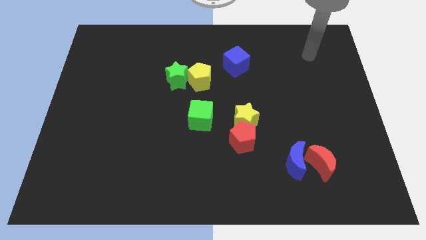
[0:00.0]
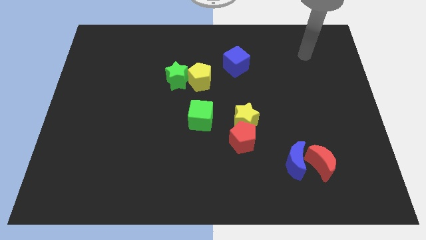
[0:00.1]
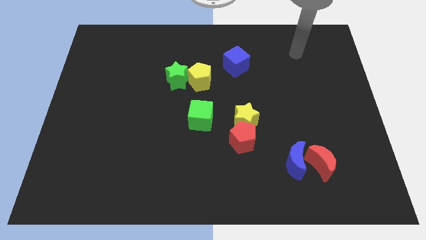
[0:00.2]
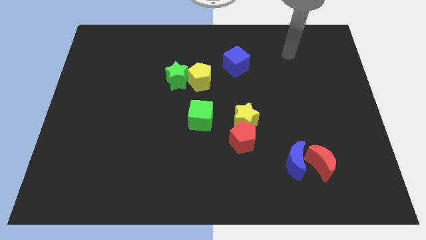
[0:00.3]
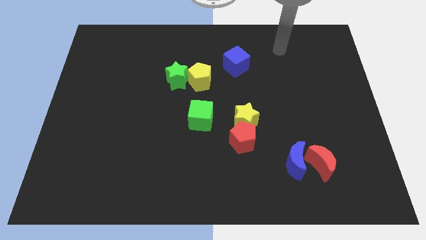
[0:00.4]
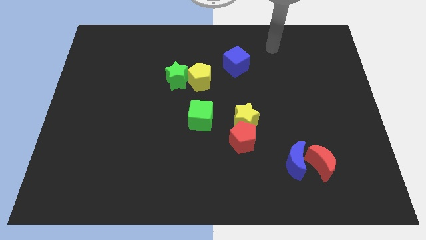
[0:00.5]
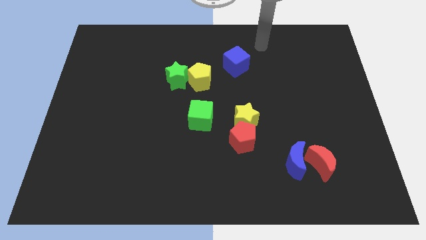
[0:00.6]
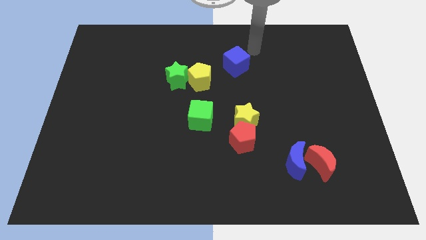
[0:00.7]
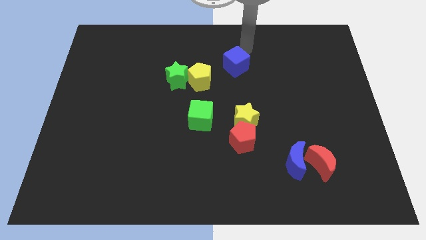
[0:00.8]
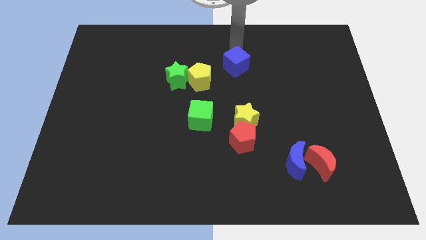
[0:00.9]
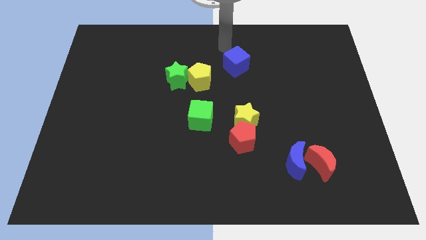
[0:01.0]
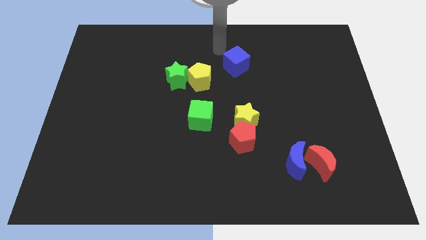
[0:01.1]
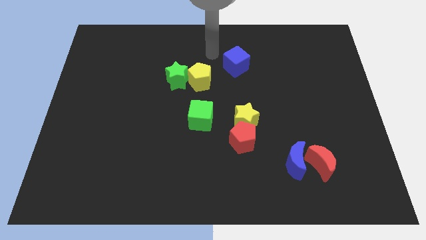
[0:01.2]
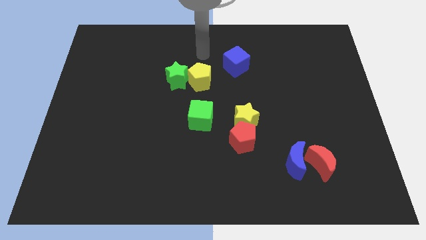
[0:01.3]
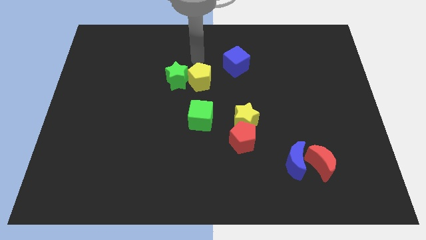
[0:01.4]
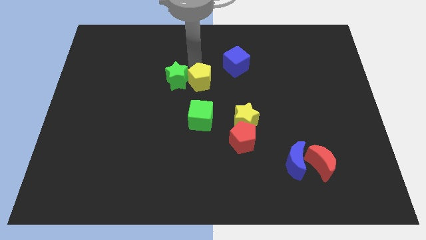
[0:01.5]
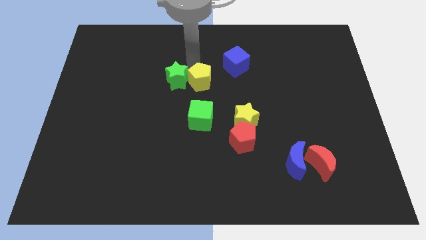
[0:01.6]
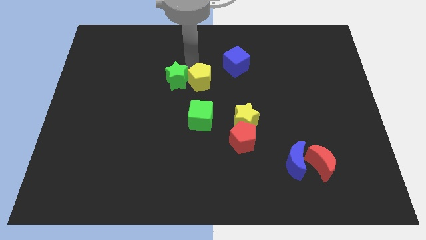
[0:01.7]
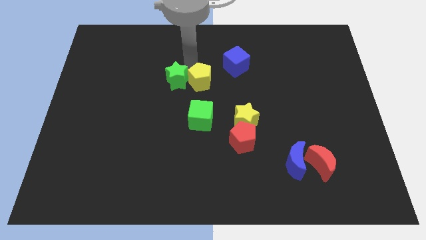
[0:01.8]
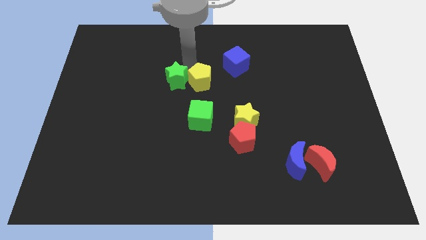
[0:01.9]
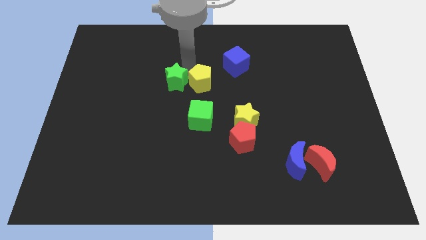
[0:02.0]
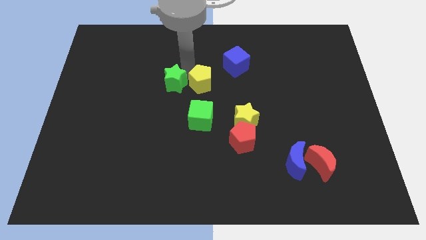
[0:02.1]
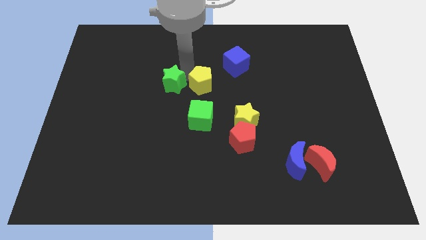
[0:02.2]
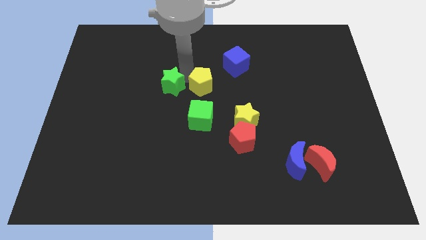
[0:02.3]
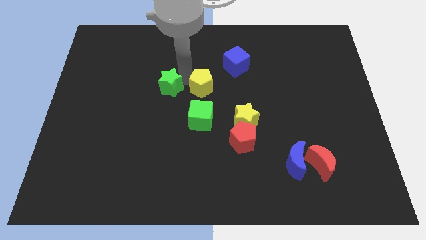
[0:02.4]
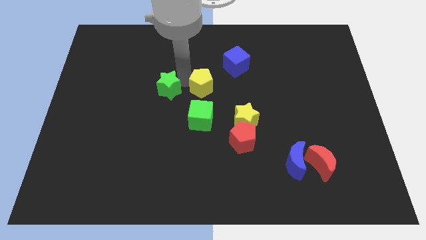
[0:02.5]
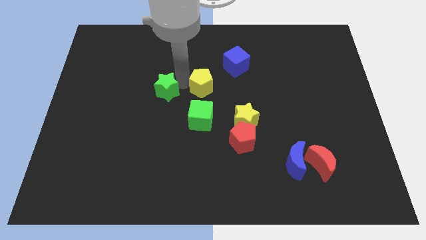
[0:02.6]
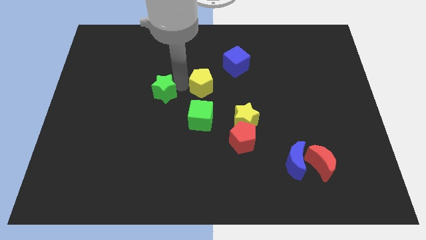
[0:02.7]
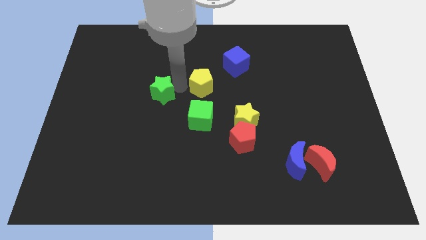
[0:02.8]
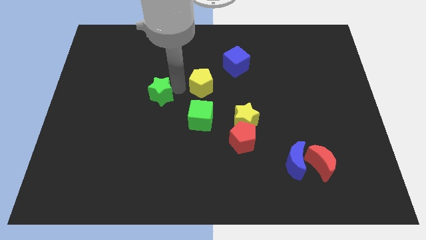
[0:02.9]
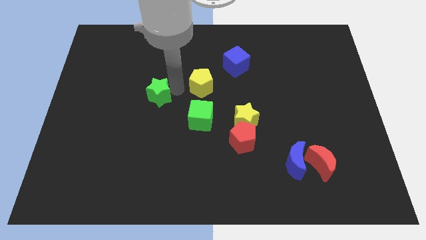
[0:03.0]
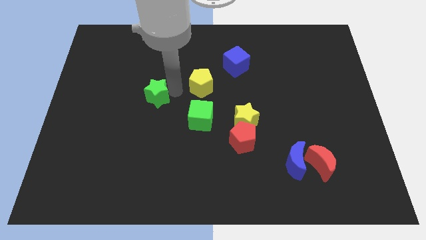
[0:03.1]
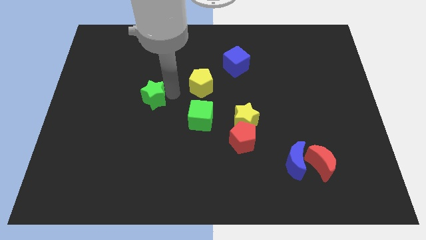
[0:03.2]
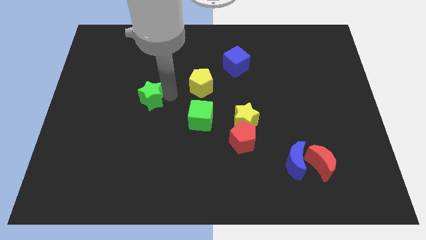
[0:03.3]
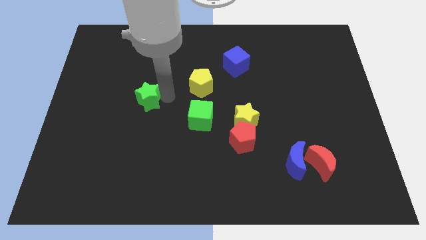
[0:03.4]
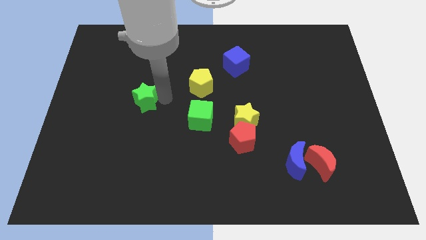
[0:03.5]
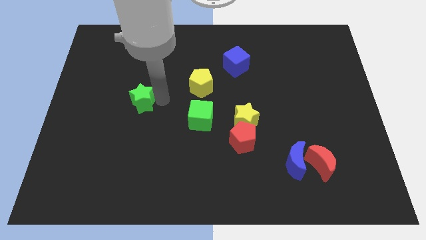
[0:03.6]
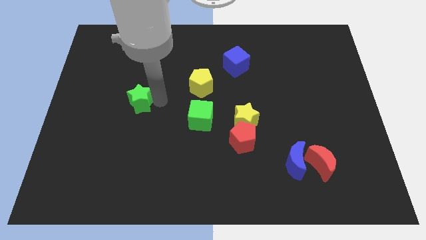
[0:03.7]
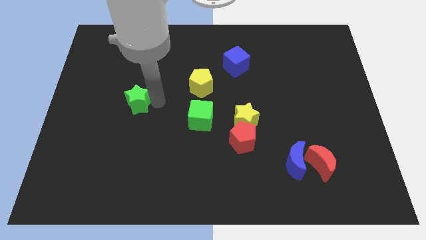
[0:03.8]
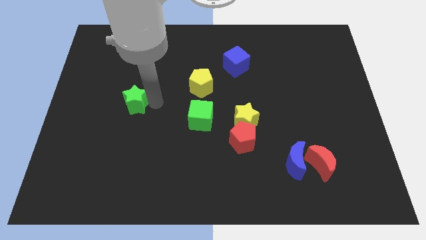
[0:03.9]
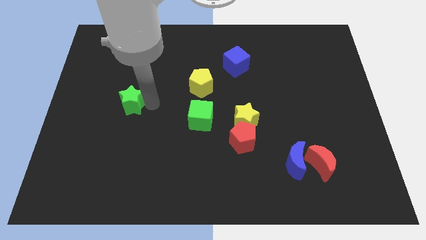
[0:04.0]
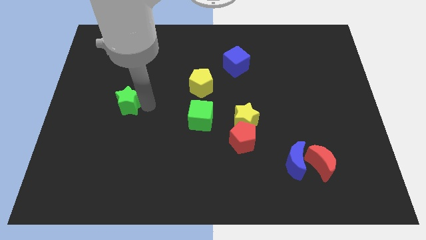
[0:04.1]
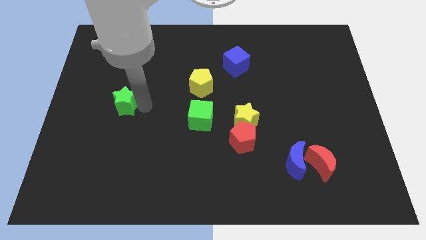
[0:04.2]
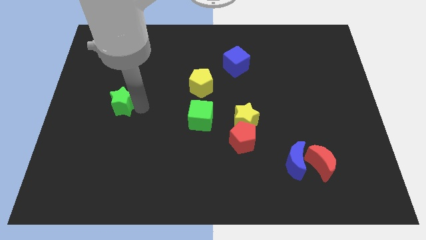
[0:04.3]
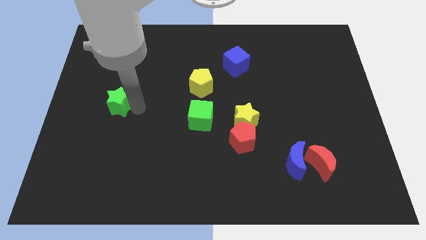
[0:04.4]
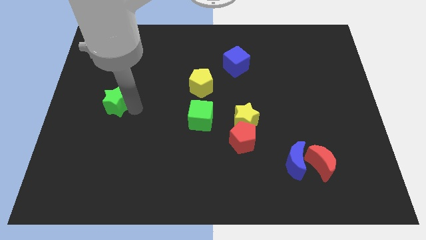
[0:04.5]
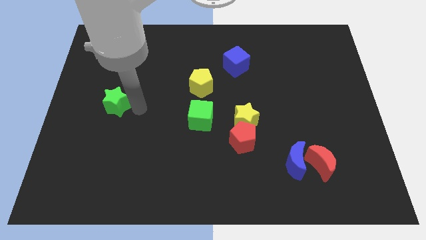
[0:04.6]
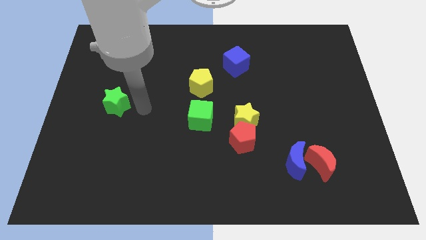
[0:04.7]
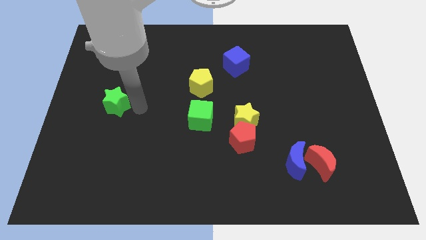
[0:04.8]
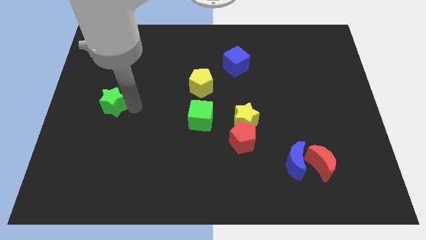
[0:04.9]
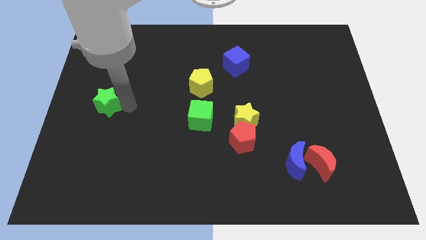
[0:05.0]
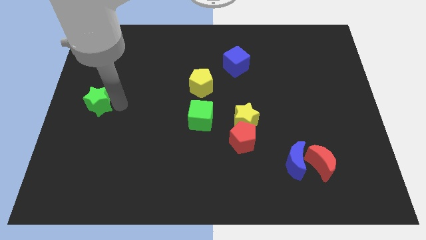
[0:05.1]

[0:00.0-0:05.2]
push the green star to the left side of the board

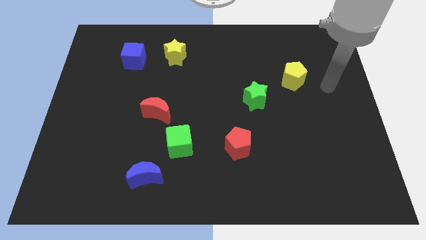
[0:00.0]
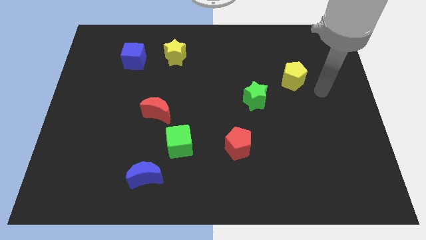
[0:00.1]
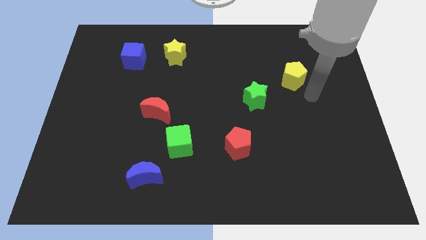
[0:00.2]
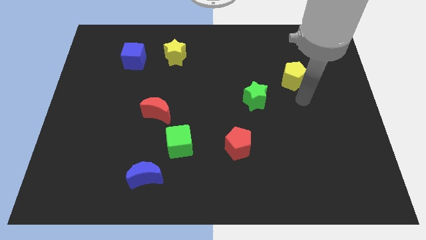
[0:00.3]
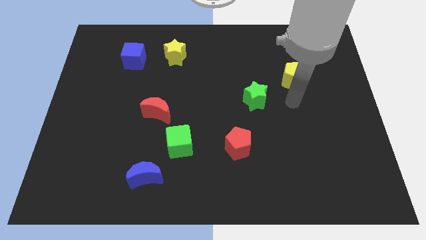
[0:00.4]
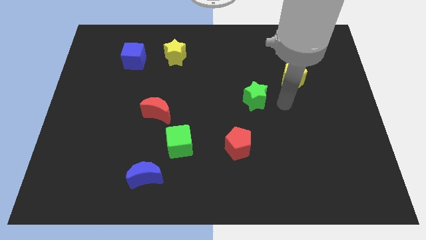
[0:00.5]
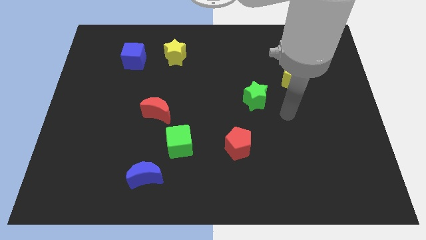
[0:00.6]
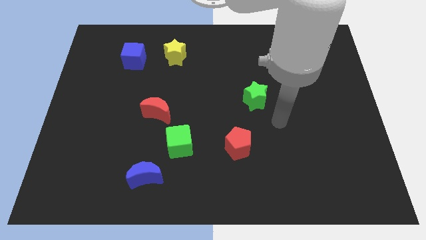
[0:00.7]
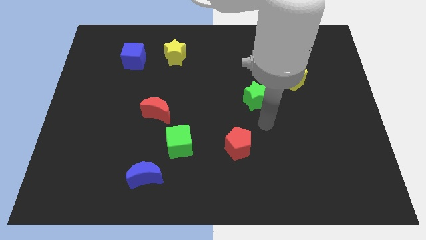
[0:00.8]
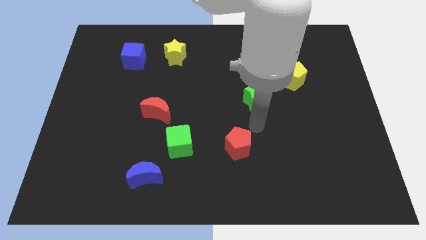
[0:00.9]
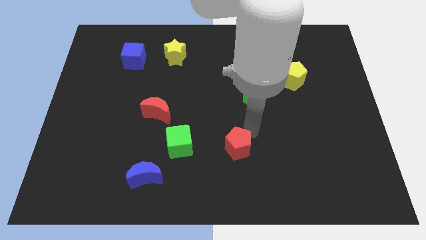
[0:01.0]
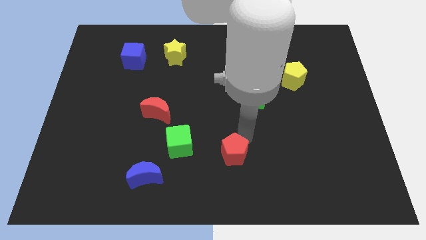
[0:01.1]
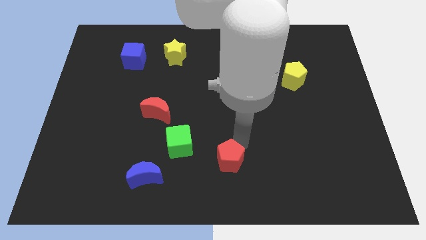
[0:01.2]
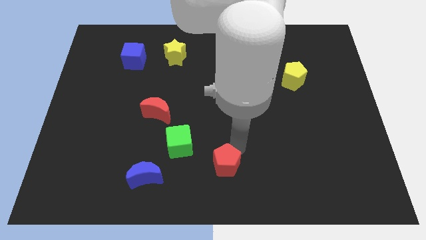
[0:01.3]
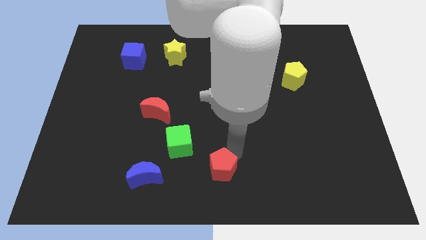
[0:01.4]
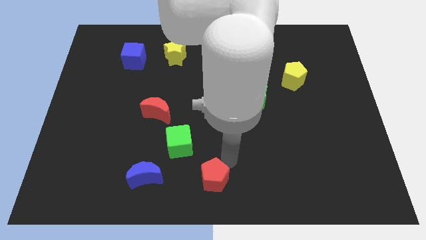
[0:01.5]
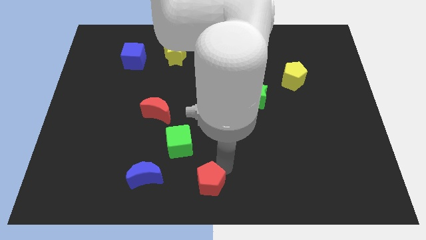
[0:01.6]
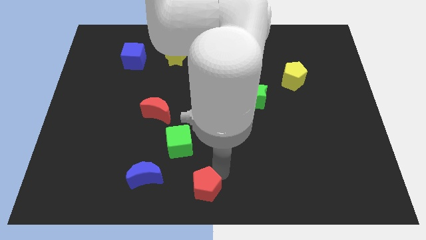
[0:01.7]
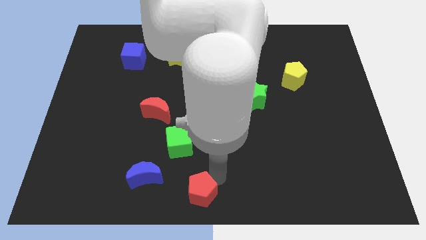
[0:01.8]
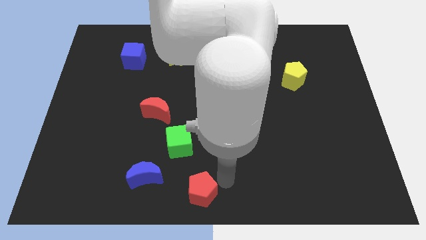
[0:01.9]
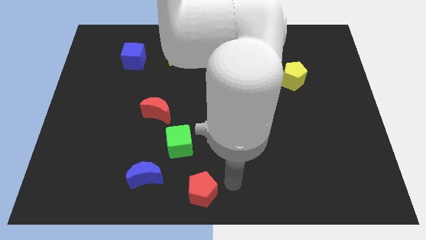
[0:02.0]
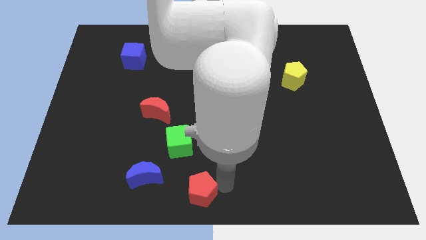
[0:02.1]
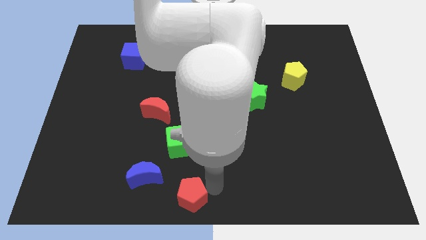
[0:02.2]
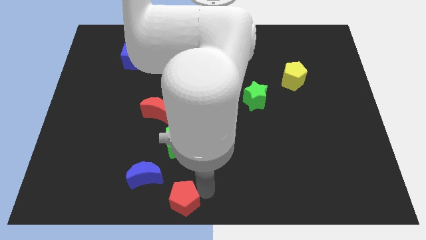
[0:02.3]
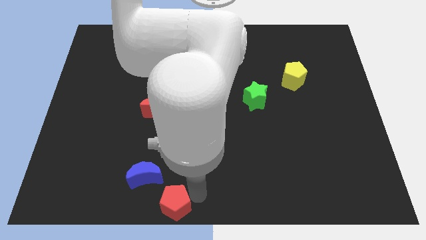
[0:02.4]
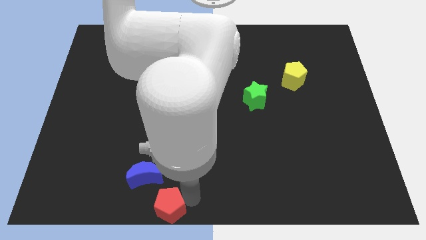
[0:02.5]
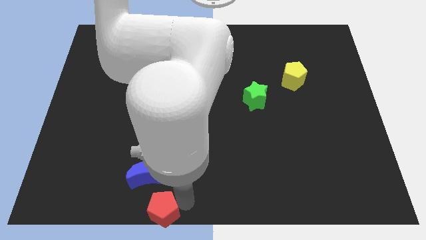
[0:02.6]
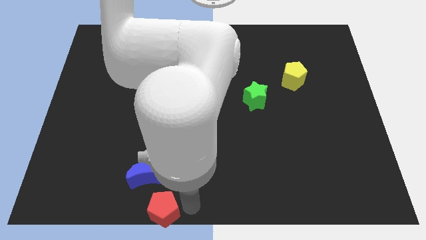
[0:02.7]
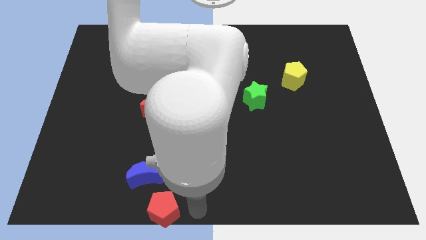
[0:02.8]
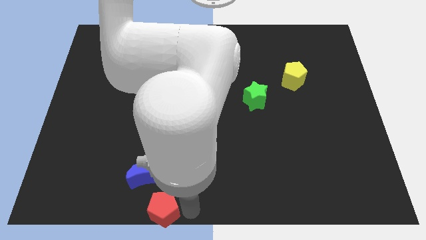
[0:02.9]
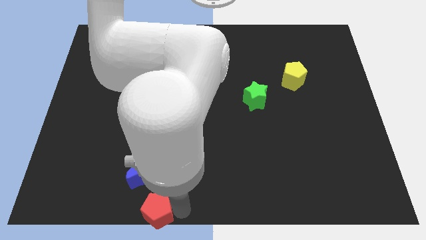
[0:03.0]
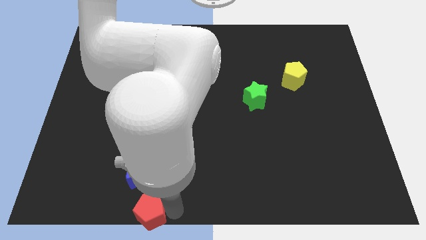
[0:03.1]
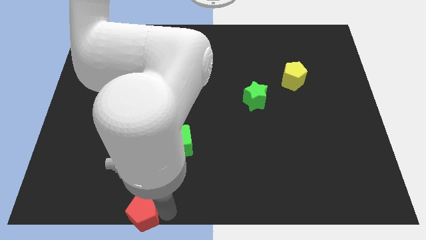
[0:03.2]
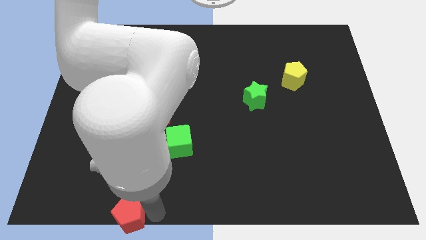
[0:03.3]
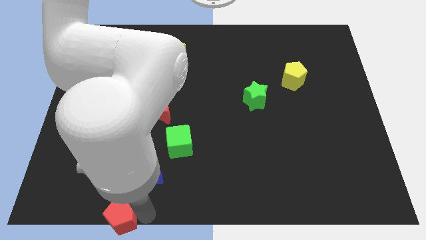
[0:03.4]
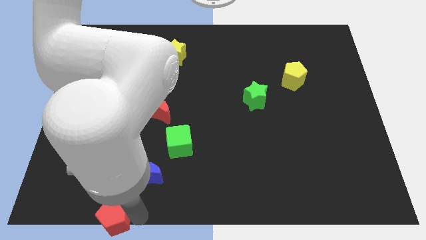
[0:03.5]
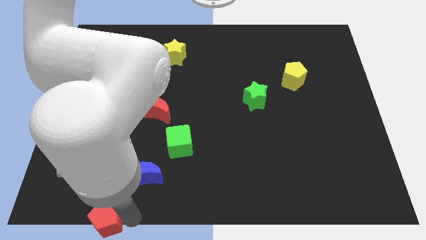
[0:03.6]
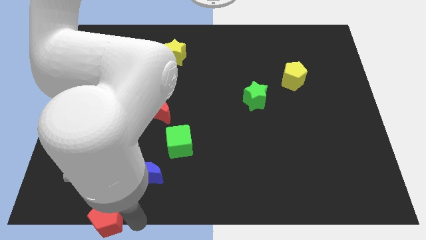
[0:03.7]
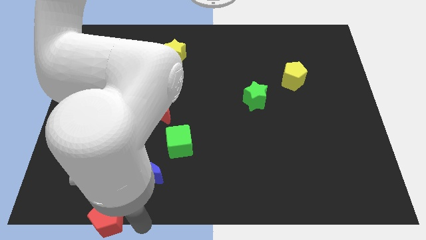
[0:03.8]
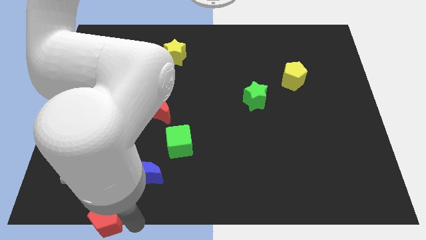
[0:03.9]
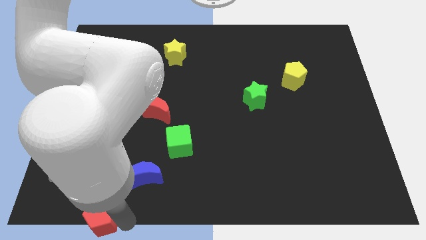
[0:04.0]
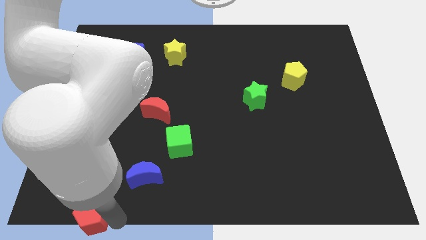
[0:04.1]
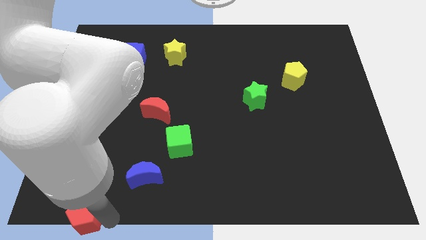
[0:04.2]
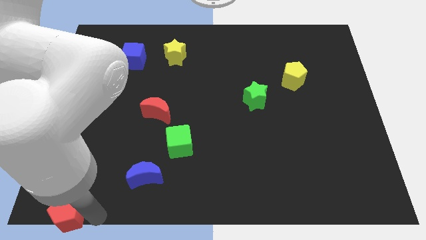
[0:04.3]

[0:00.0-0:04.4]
put the red pentagon to the bottom left corner
